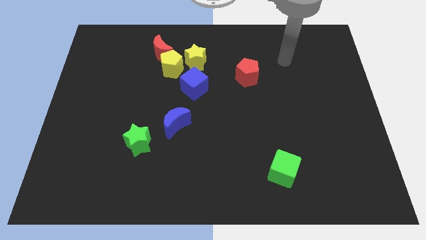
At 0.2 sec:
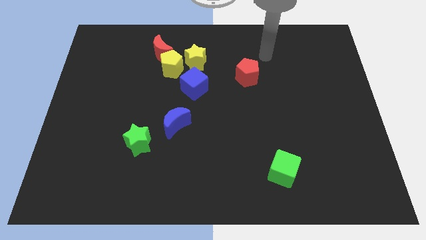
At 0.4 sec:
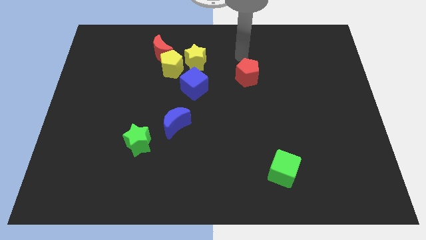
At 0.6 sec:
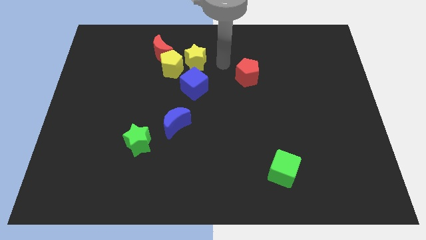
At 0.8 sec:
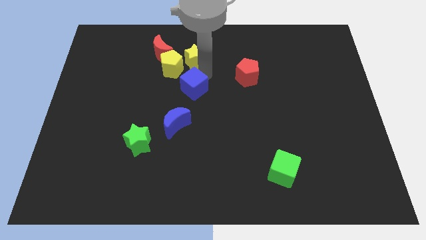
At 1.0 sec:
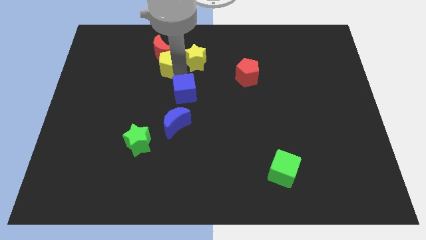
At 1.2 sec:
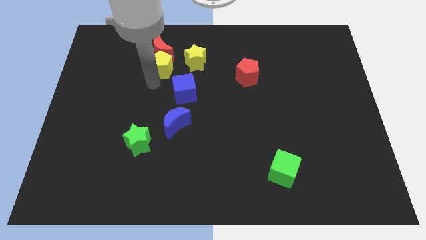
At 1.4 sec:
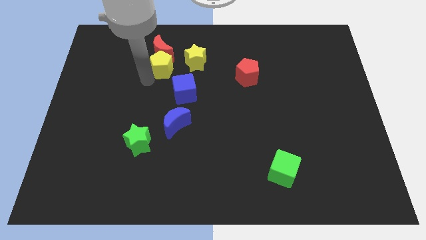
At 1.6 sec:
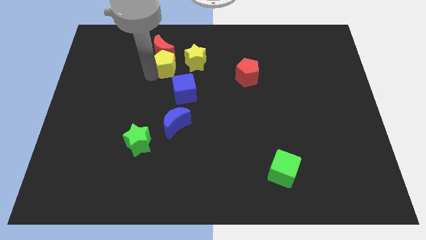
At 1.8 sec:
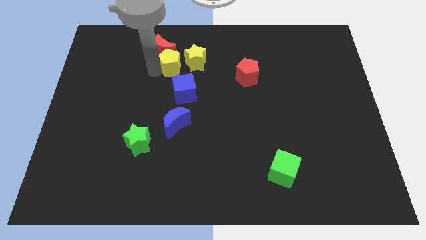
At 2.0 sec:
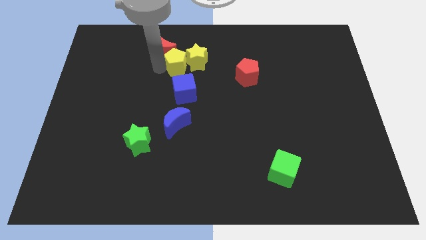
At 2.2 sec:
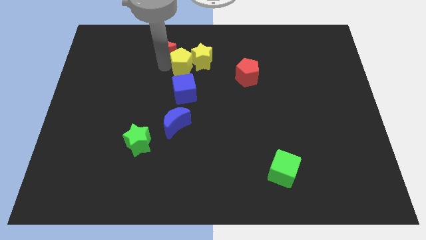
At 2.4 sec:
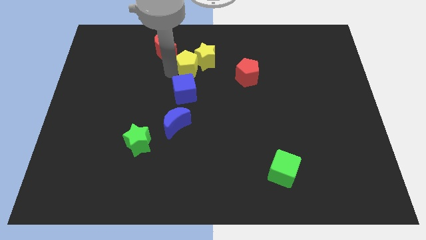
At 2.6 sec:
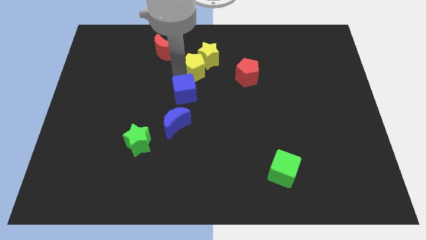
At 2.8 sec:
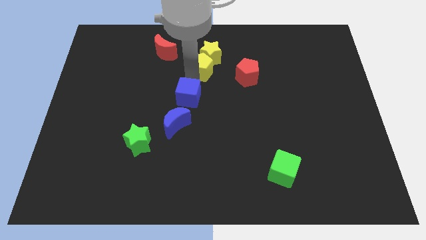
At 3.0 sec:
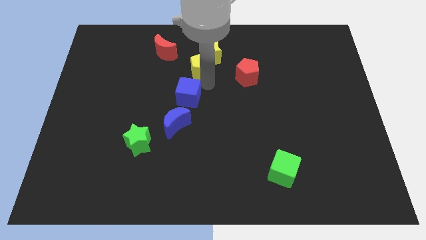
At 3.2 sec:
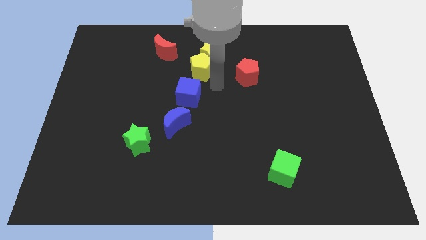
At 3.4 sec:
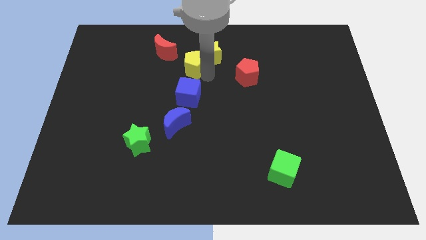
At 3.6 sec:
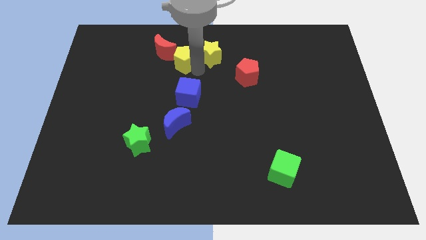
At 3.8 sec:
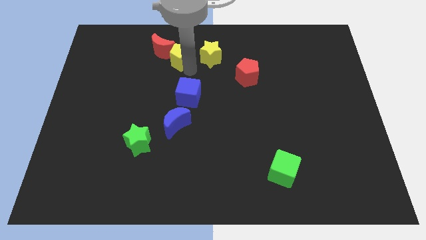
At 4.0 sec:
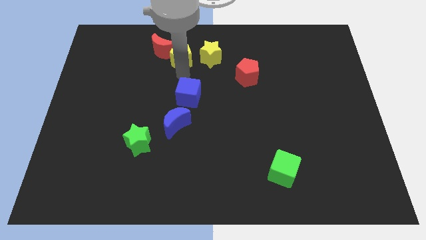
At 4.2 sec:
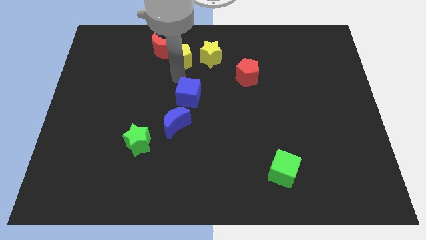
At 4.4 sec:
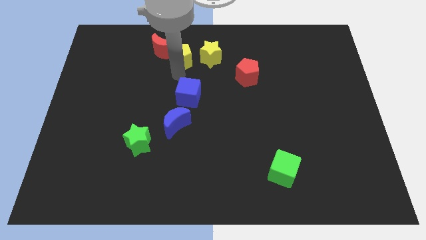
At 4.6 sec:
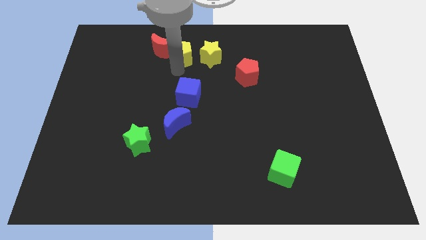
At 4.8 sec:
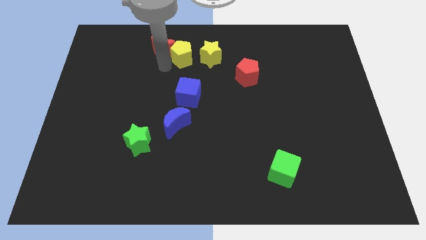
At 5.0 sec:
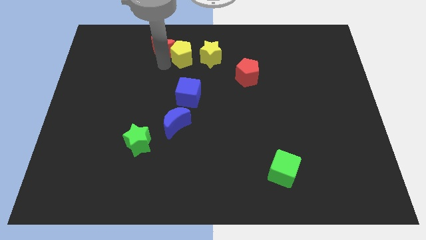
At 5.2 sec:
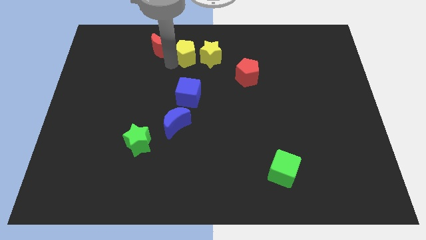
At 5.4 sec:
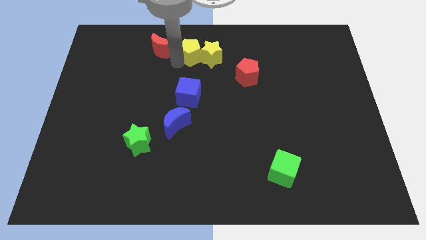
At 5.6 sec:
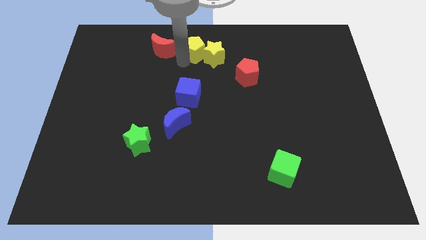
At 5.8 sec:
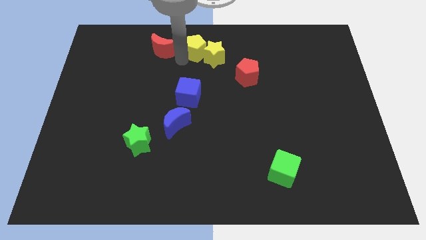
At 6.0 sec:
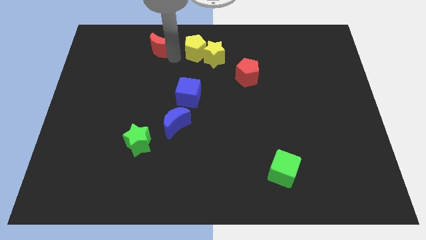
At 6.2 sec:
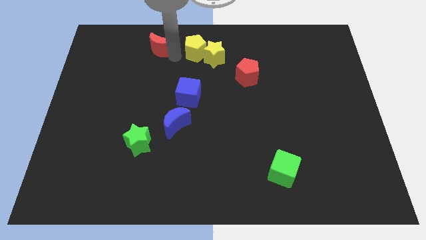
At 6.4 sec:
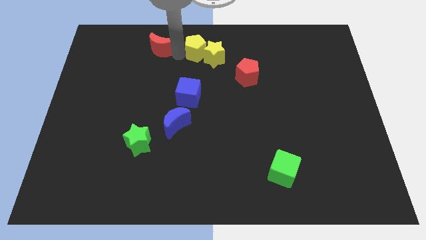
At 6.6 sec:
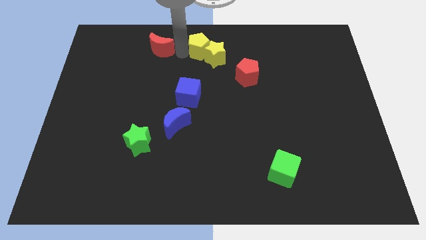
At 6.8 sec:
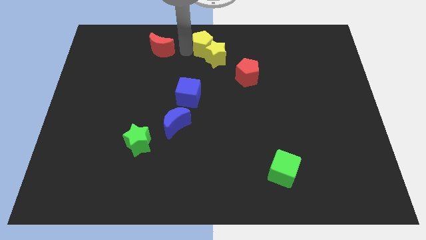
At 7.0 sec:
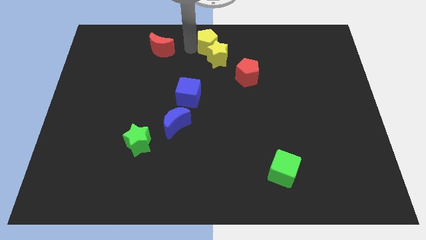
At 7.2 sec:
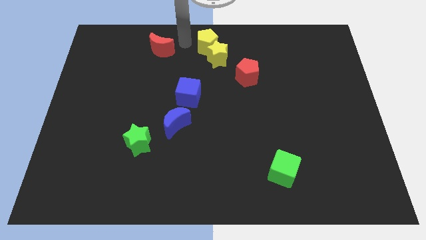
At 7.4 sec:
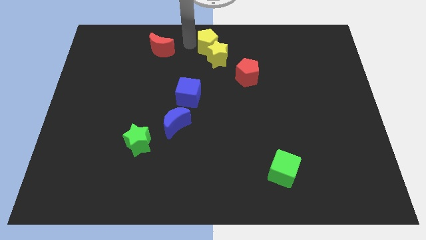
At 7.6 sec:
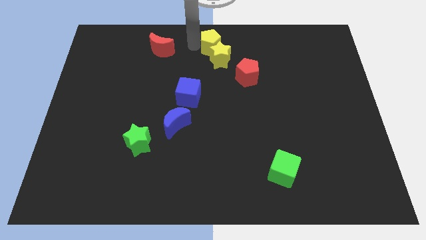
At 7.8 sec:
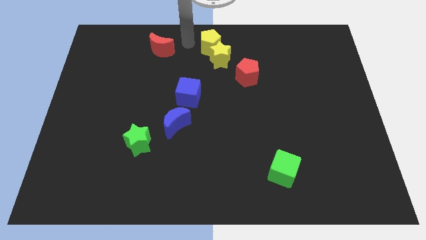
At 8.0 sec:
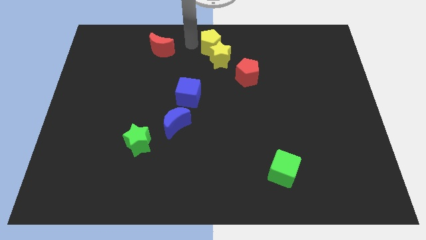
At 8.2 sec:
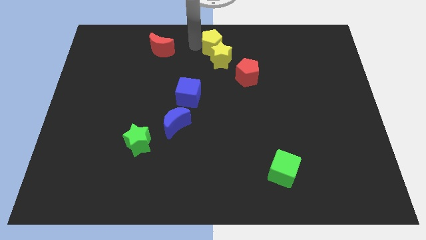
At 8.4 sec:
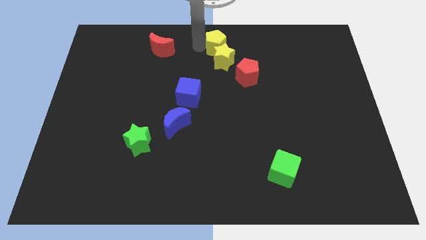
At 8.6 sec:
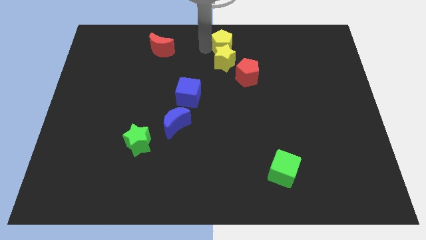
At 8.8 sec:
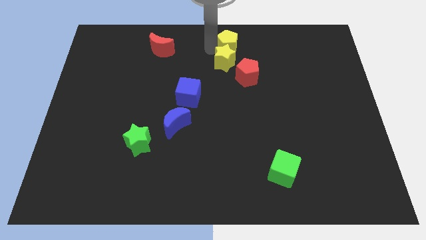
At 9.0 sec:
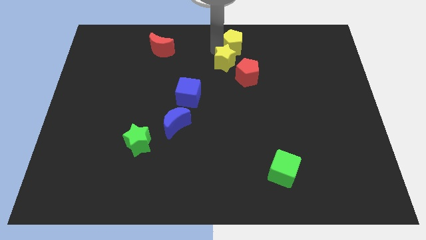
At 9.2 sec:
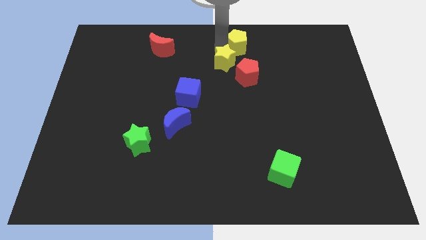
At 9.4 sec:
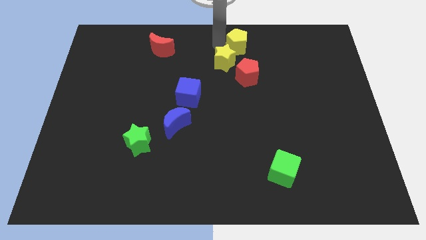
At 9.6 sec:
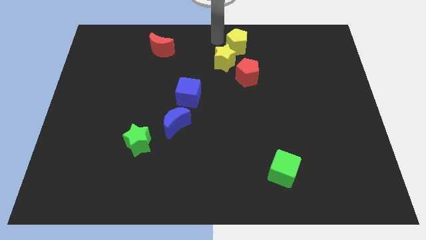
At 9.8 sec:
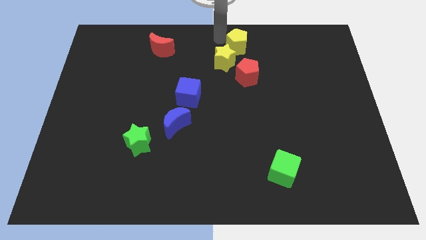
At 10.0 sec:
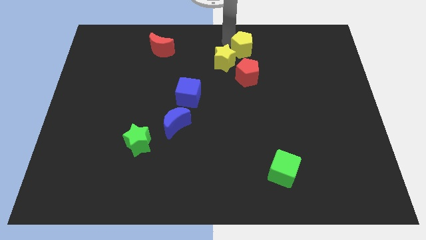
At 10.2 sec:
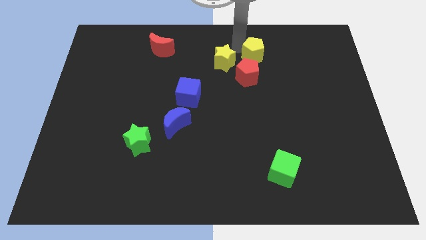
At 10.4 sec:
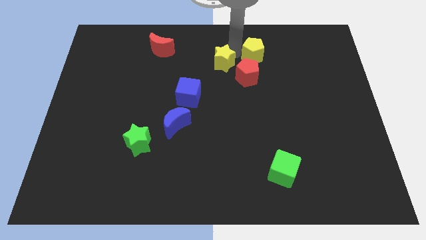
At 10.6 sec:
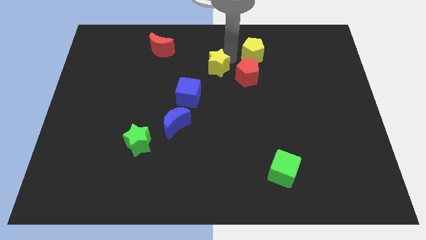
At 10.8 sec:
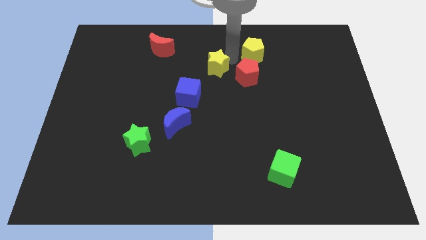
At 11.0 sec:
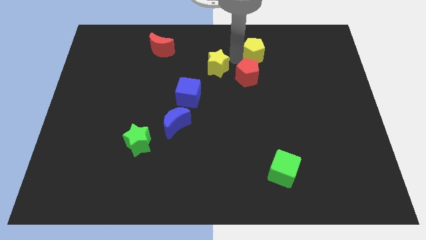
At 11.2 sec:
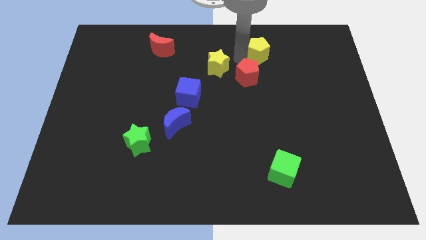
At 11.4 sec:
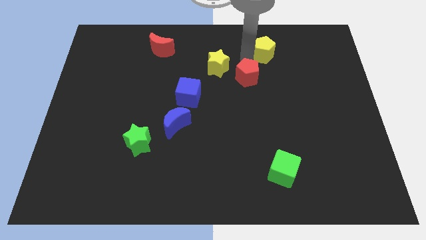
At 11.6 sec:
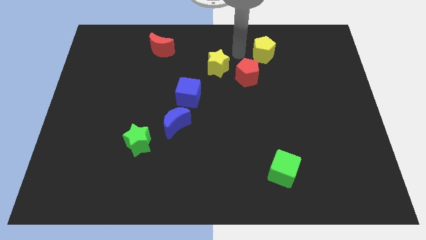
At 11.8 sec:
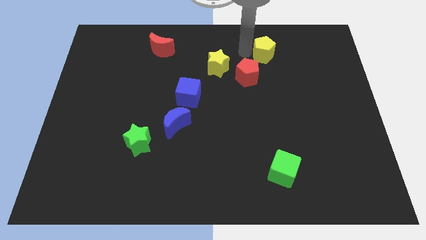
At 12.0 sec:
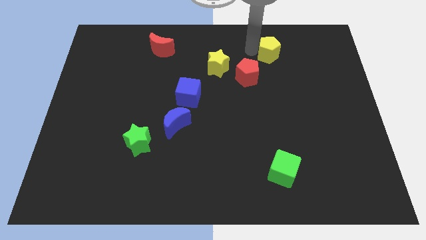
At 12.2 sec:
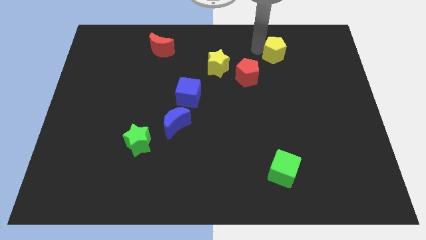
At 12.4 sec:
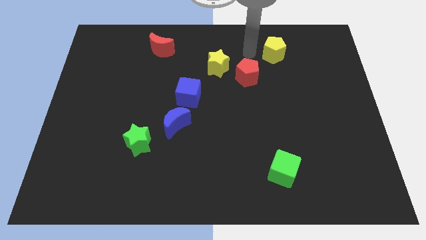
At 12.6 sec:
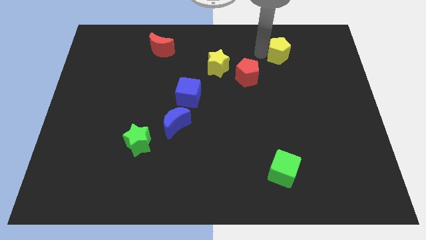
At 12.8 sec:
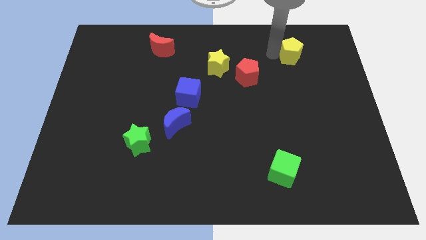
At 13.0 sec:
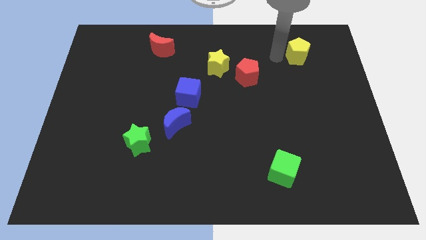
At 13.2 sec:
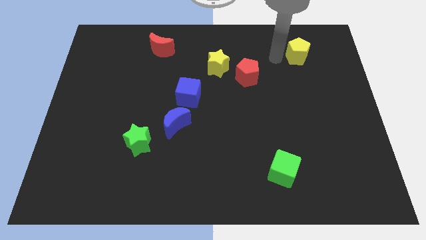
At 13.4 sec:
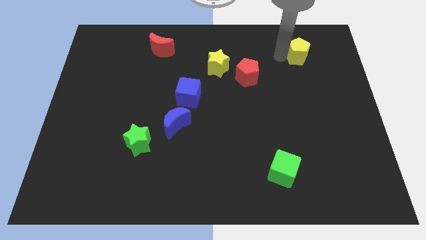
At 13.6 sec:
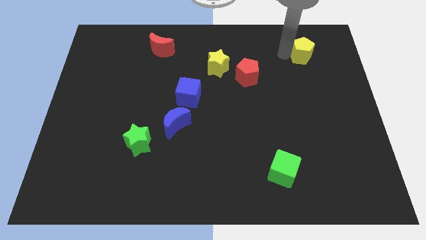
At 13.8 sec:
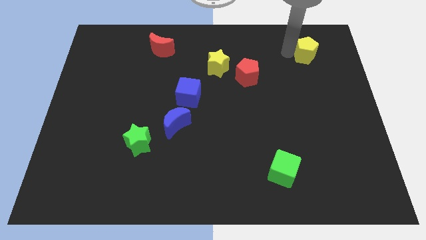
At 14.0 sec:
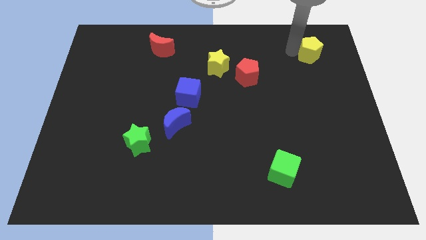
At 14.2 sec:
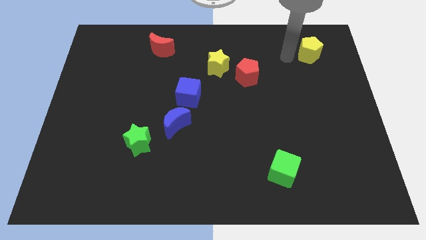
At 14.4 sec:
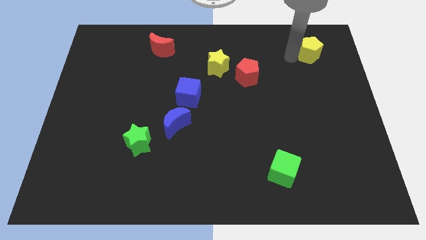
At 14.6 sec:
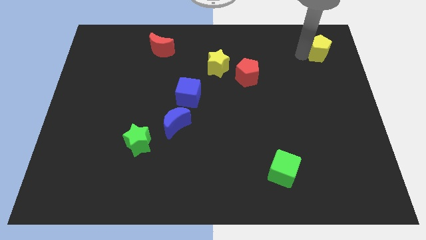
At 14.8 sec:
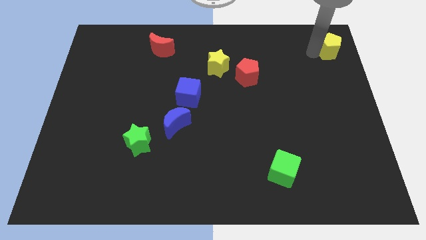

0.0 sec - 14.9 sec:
put the yellow pentagon to the top right corner
